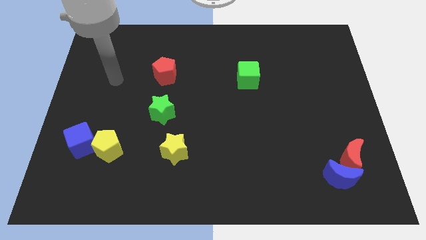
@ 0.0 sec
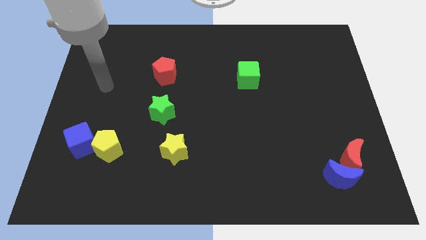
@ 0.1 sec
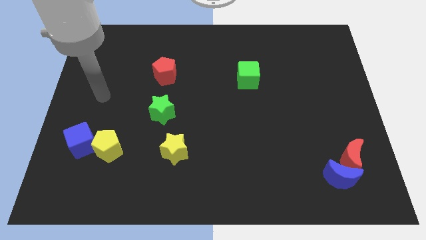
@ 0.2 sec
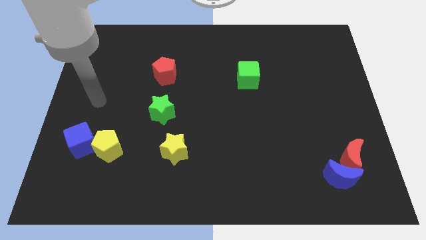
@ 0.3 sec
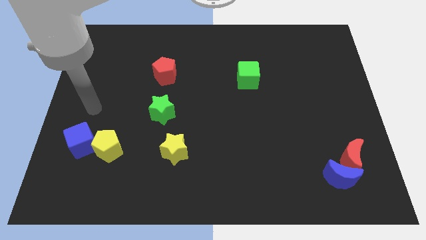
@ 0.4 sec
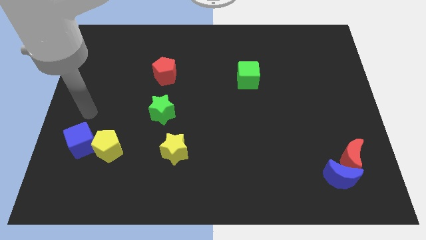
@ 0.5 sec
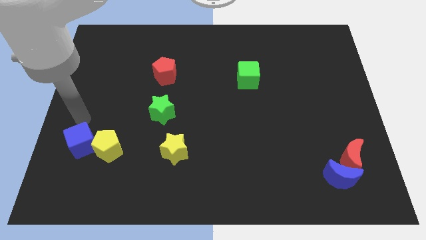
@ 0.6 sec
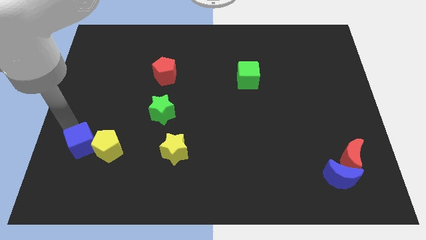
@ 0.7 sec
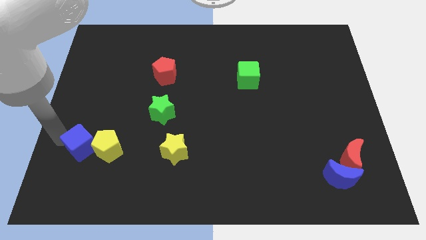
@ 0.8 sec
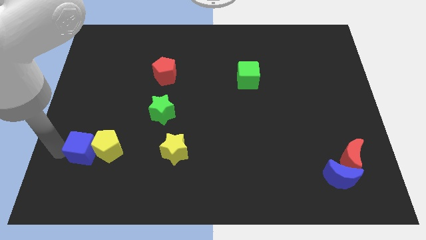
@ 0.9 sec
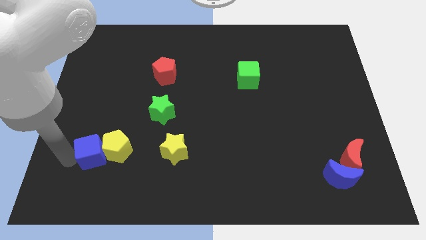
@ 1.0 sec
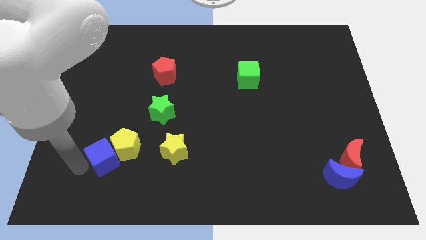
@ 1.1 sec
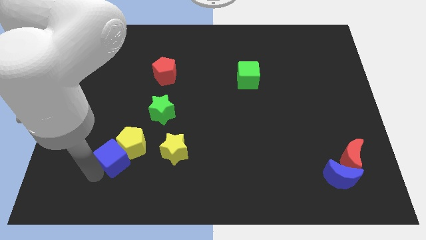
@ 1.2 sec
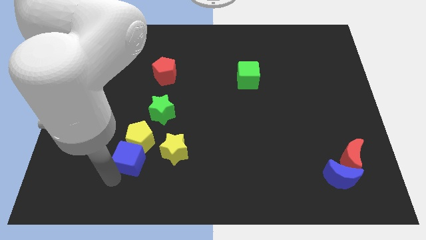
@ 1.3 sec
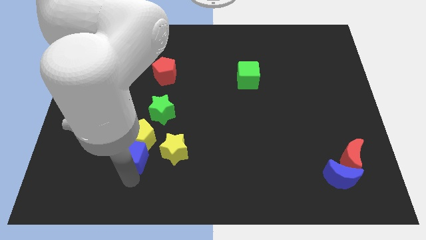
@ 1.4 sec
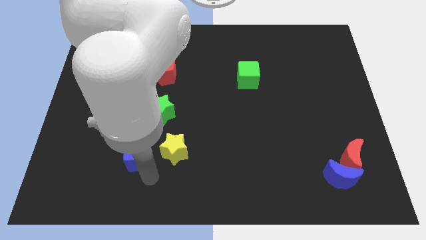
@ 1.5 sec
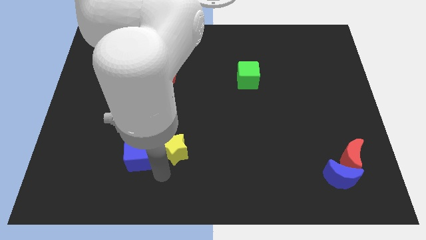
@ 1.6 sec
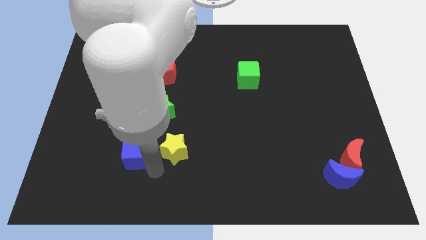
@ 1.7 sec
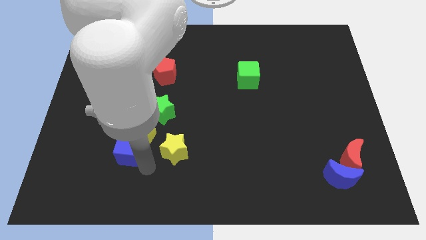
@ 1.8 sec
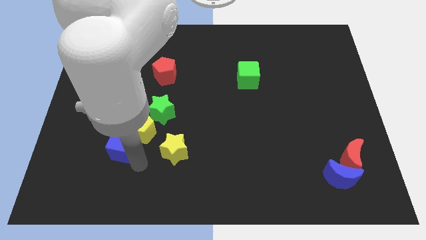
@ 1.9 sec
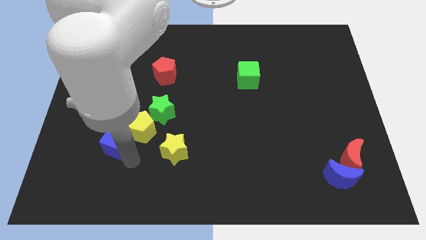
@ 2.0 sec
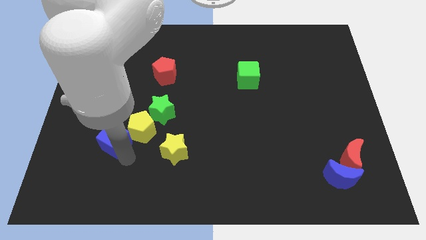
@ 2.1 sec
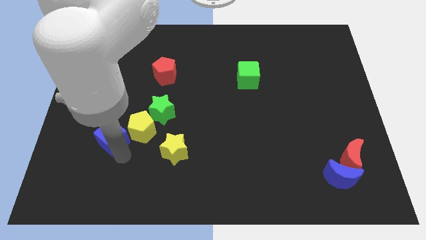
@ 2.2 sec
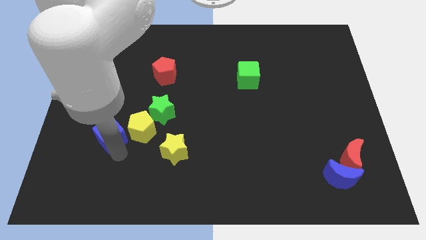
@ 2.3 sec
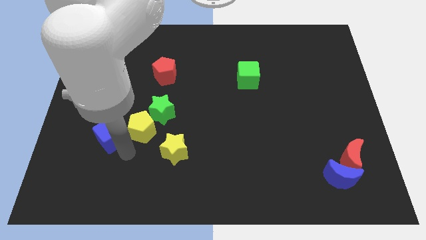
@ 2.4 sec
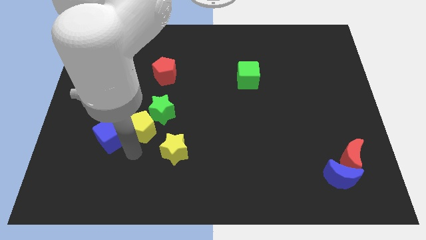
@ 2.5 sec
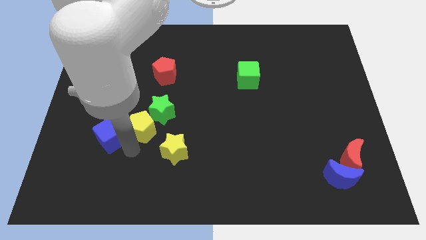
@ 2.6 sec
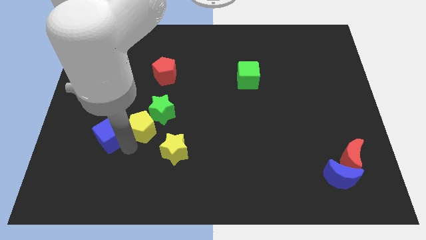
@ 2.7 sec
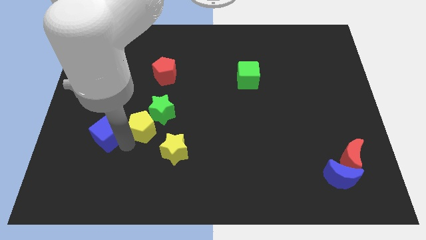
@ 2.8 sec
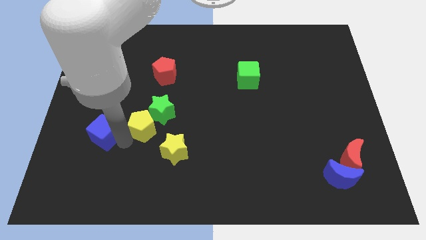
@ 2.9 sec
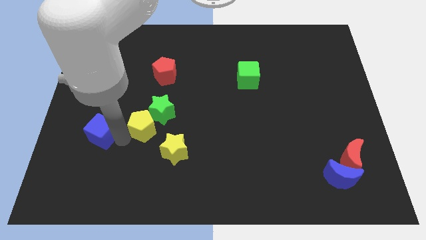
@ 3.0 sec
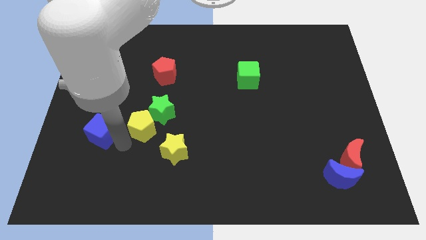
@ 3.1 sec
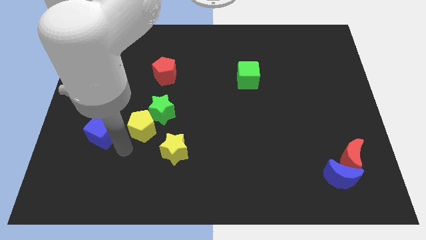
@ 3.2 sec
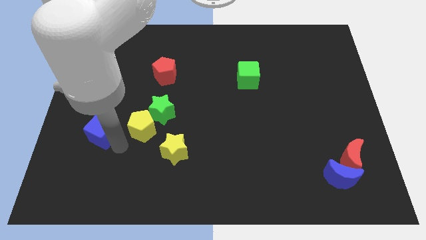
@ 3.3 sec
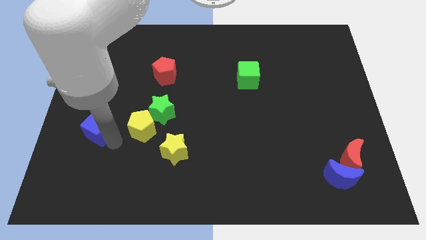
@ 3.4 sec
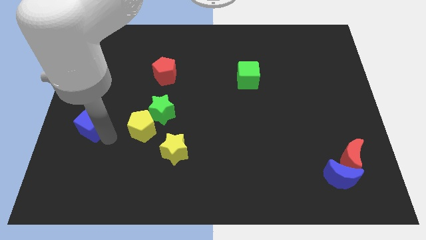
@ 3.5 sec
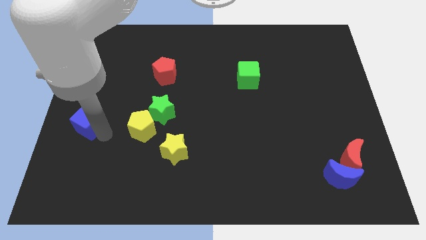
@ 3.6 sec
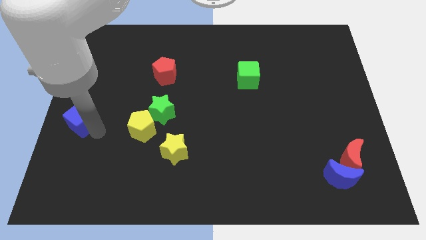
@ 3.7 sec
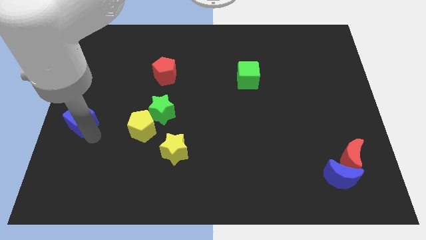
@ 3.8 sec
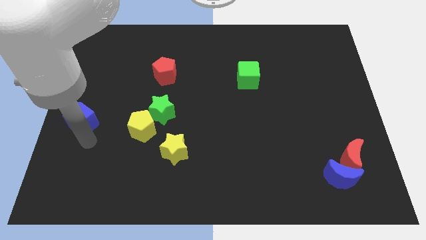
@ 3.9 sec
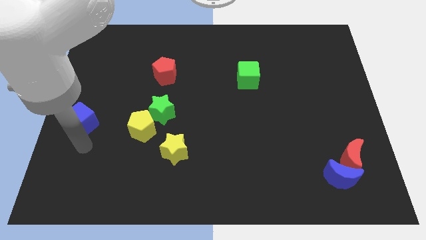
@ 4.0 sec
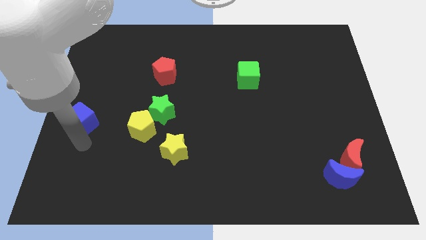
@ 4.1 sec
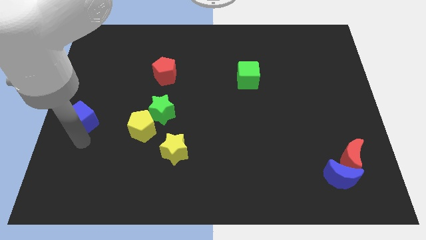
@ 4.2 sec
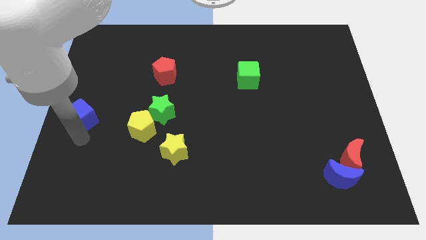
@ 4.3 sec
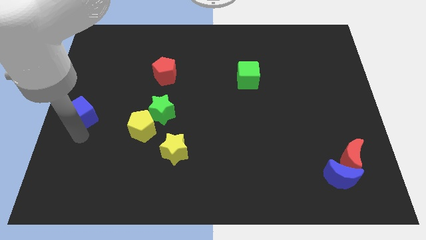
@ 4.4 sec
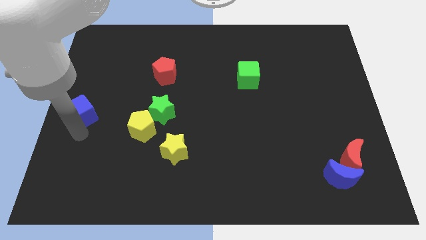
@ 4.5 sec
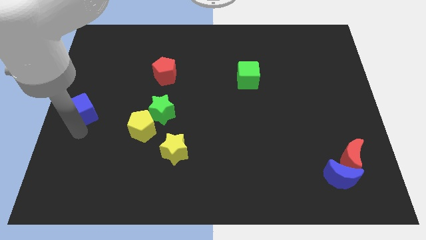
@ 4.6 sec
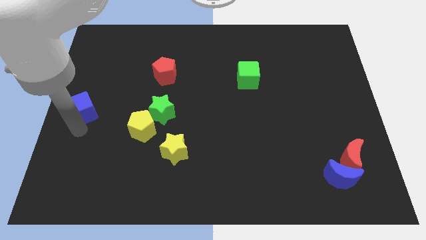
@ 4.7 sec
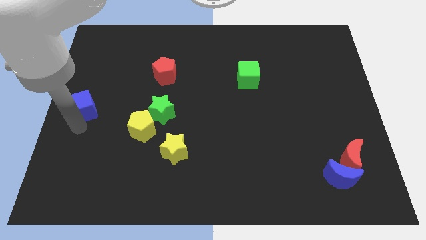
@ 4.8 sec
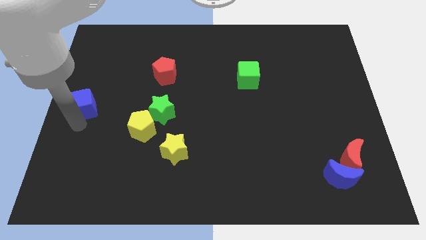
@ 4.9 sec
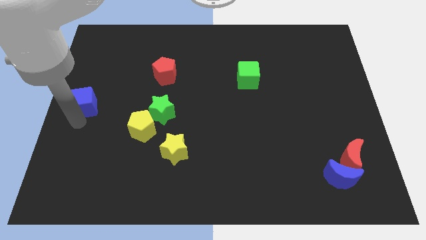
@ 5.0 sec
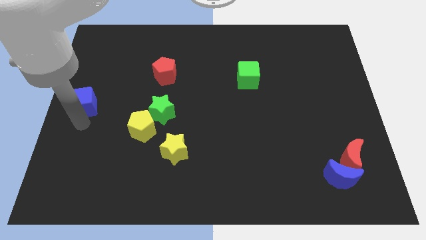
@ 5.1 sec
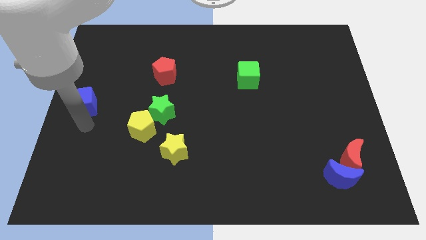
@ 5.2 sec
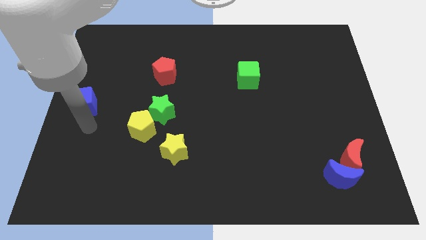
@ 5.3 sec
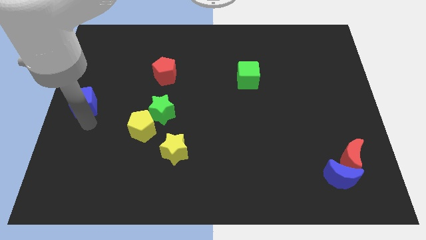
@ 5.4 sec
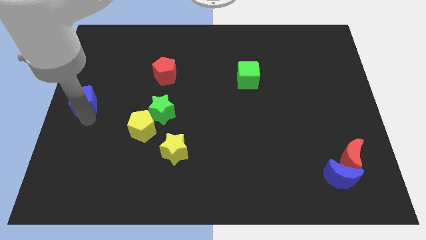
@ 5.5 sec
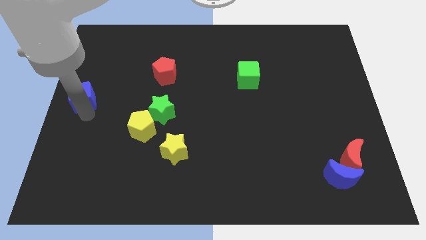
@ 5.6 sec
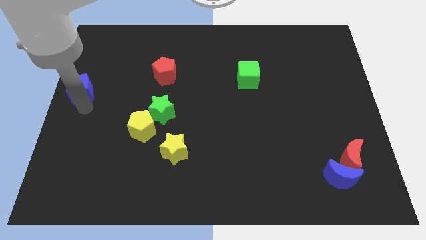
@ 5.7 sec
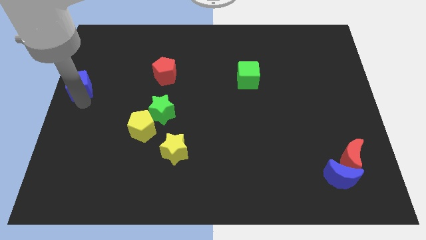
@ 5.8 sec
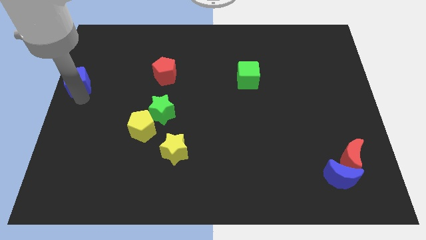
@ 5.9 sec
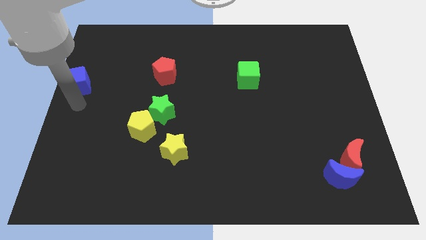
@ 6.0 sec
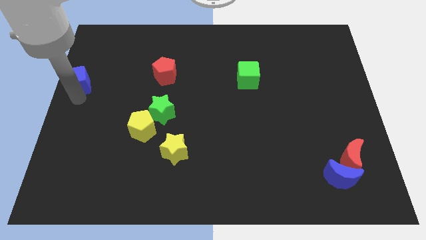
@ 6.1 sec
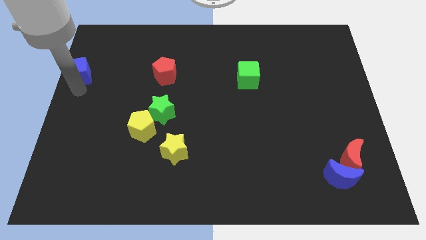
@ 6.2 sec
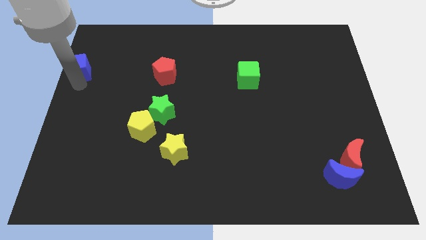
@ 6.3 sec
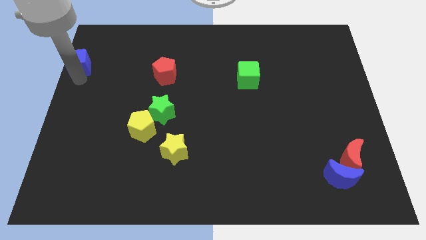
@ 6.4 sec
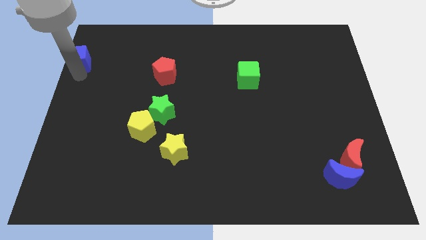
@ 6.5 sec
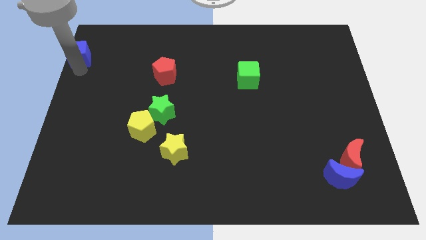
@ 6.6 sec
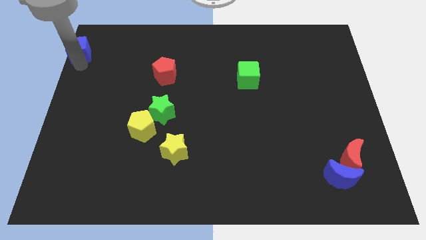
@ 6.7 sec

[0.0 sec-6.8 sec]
push the blue cube to the top left
